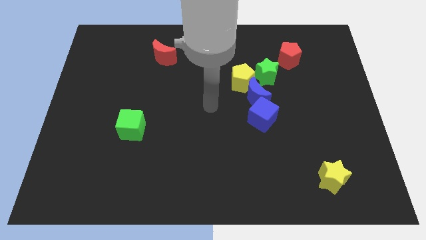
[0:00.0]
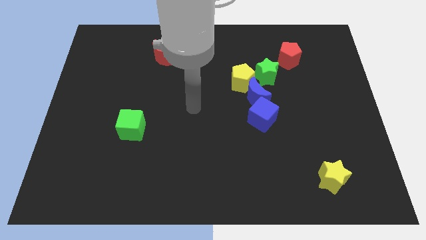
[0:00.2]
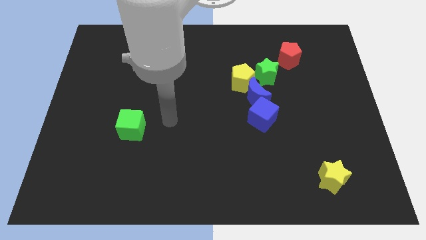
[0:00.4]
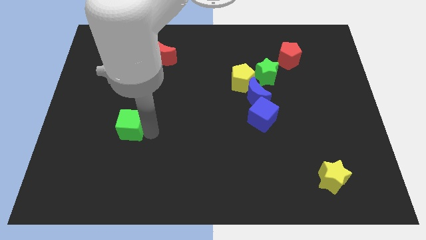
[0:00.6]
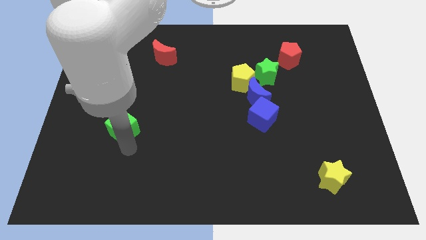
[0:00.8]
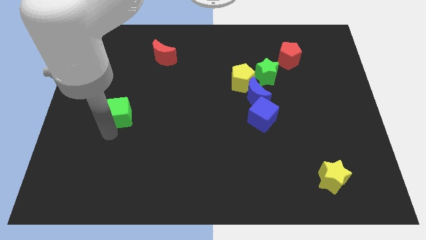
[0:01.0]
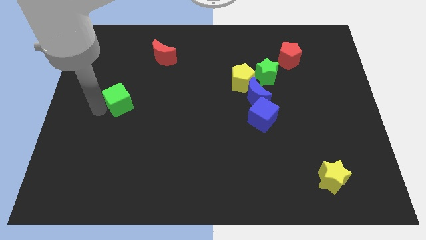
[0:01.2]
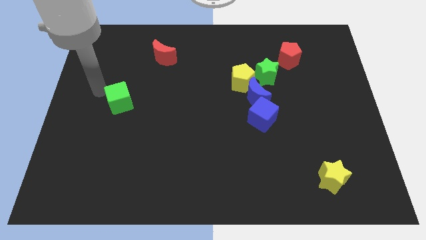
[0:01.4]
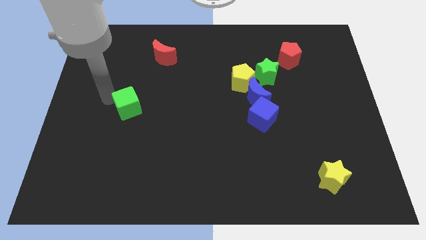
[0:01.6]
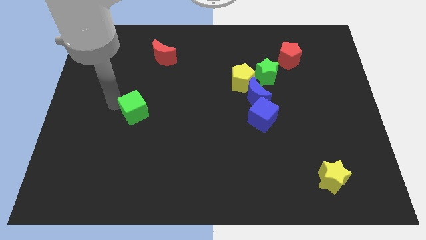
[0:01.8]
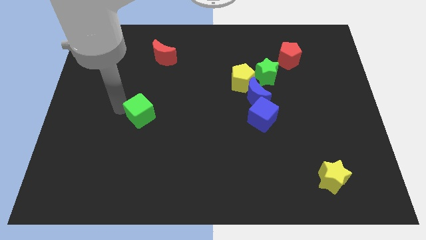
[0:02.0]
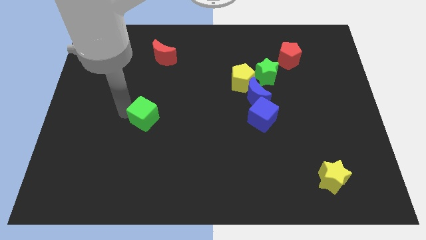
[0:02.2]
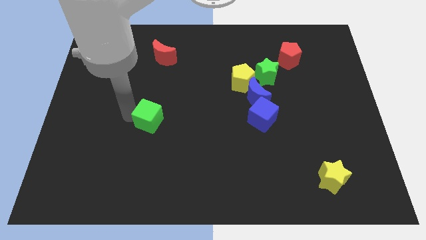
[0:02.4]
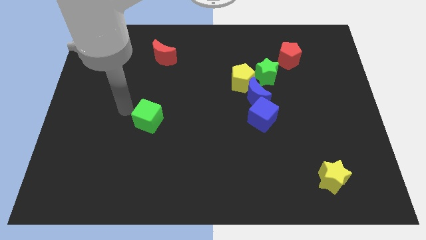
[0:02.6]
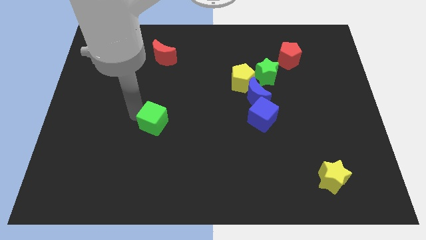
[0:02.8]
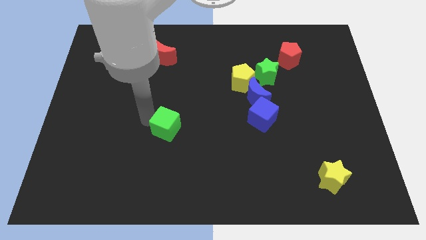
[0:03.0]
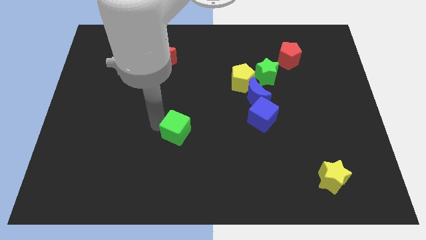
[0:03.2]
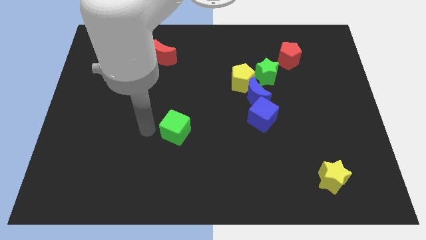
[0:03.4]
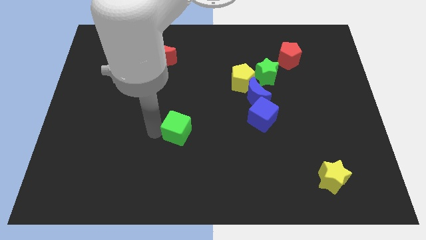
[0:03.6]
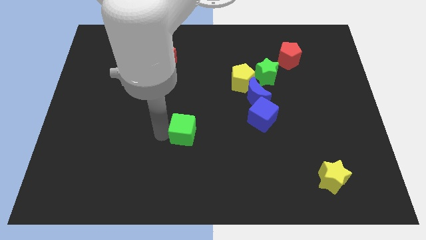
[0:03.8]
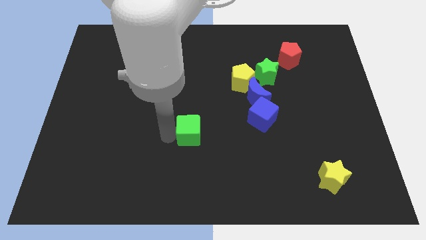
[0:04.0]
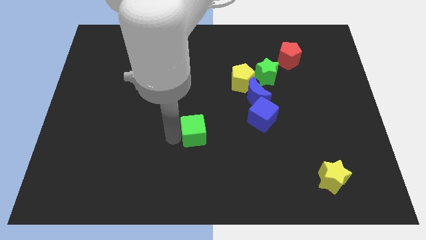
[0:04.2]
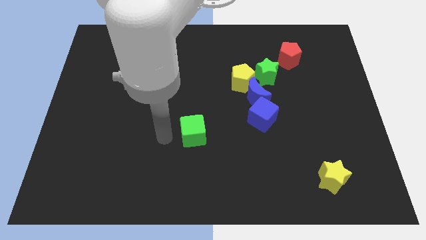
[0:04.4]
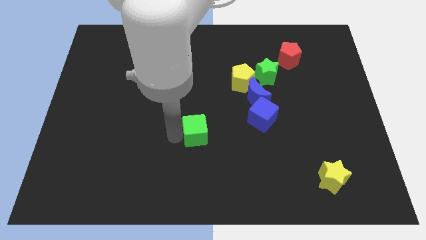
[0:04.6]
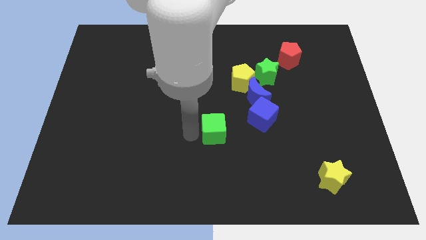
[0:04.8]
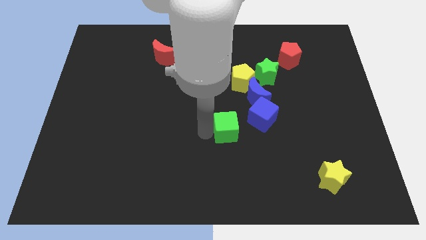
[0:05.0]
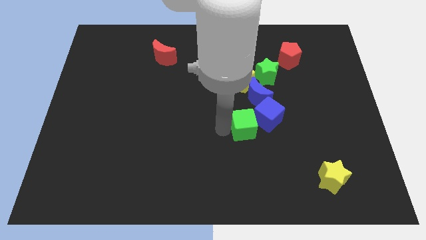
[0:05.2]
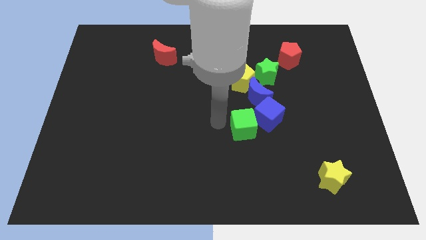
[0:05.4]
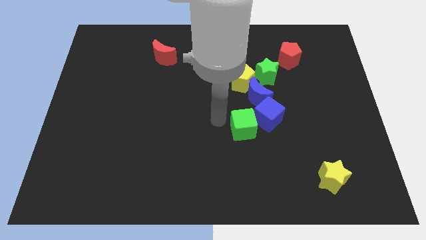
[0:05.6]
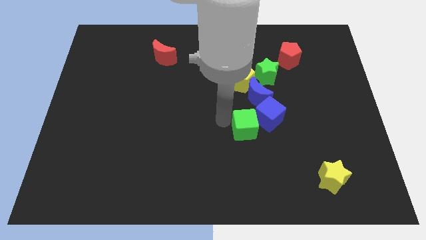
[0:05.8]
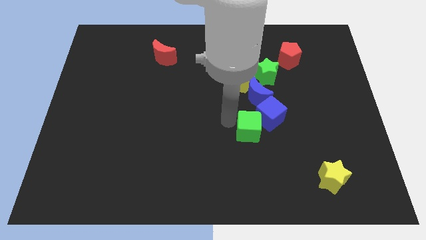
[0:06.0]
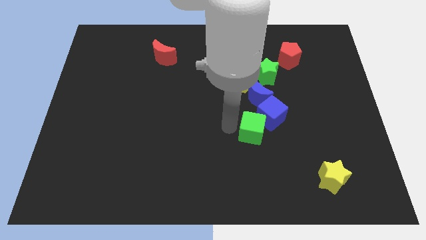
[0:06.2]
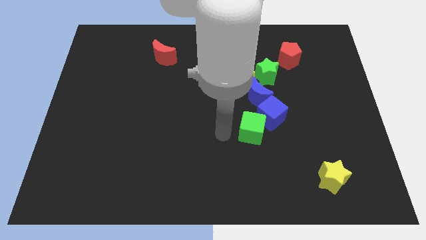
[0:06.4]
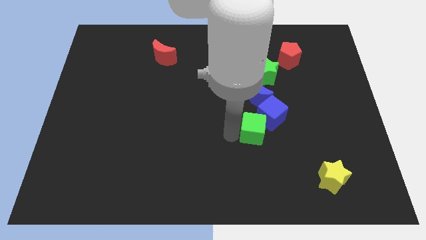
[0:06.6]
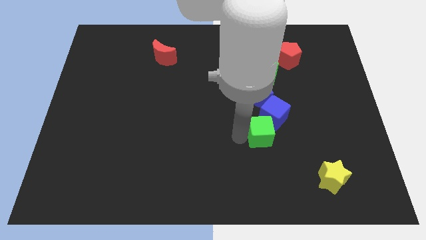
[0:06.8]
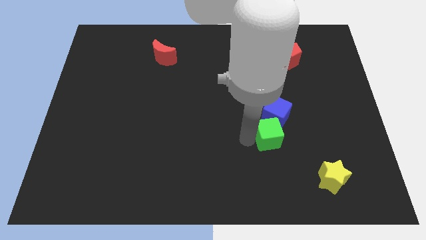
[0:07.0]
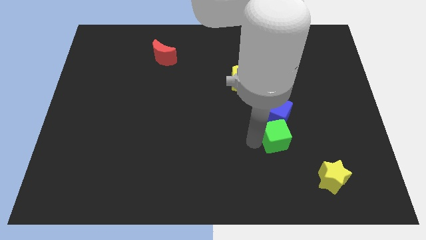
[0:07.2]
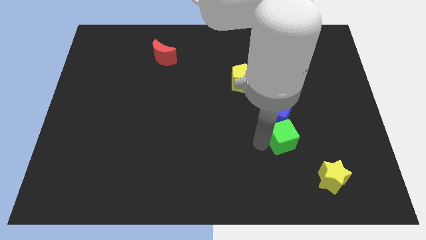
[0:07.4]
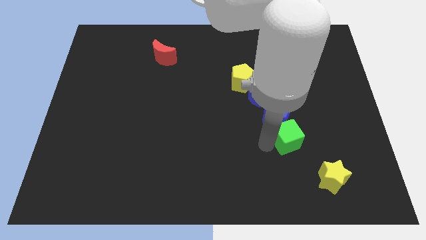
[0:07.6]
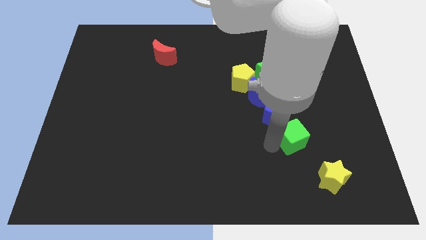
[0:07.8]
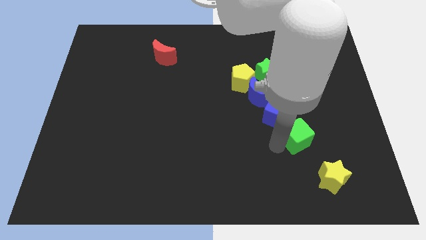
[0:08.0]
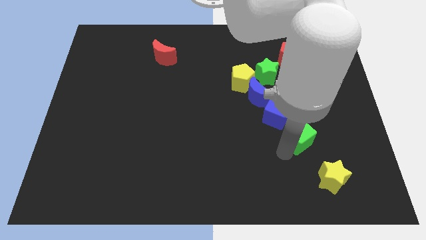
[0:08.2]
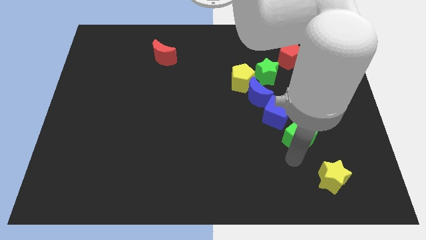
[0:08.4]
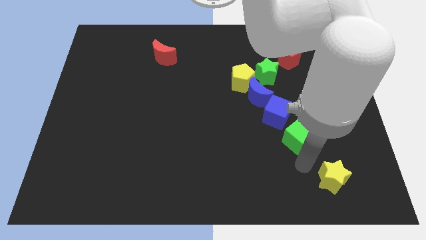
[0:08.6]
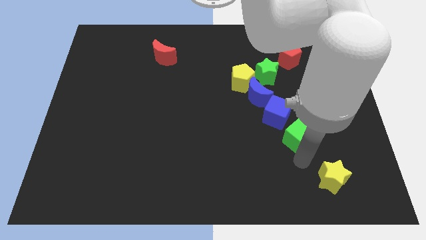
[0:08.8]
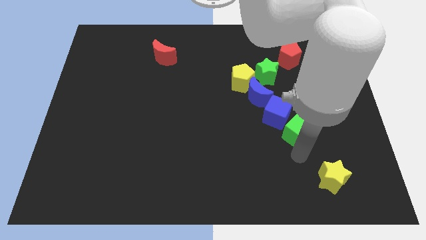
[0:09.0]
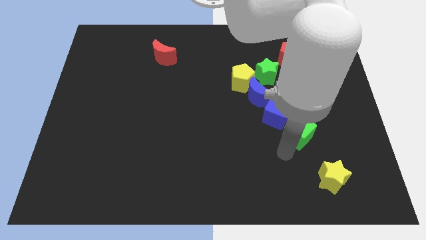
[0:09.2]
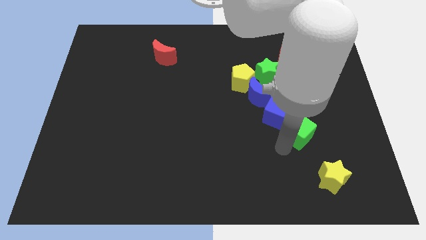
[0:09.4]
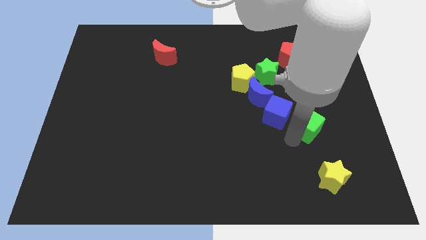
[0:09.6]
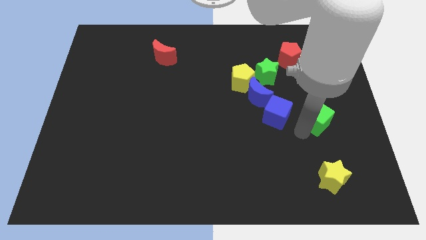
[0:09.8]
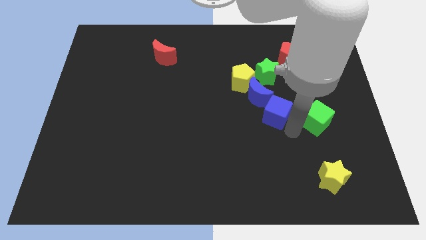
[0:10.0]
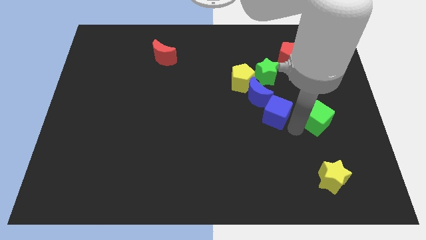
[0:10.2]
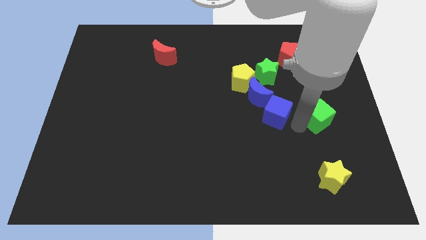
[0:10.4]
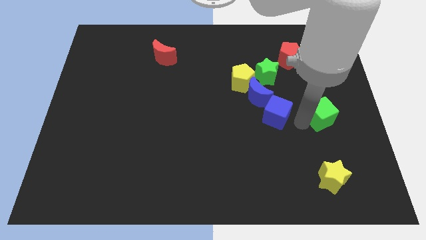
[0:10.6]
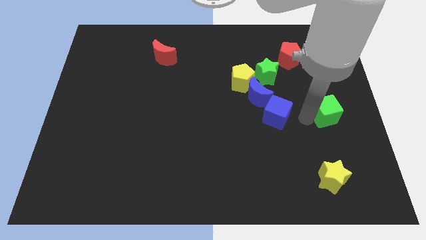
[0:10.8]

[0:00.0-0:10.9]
push the green cube to the right side of the board

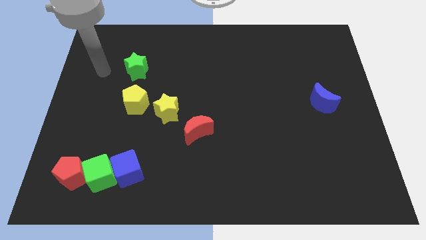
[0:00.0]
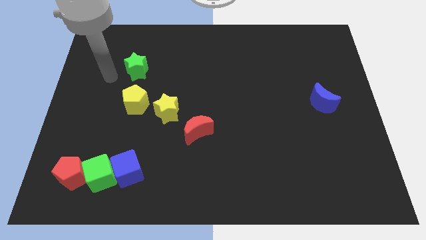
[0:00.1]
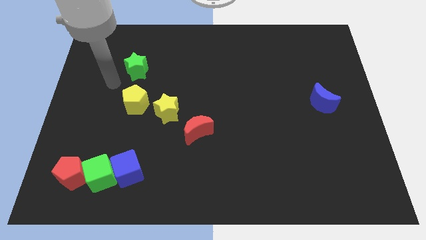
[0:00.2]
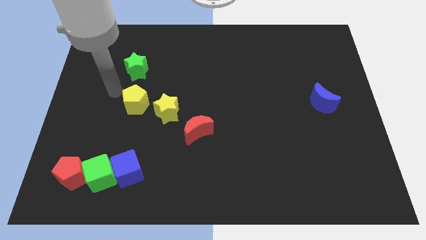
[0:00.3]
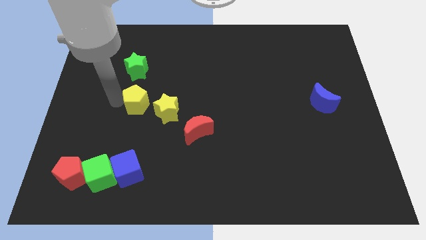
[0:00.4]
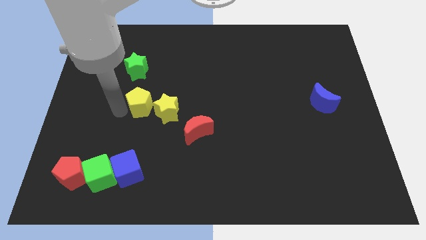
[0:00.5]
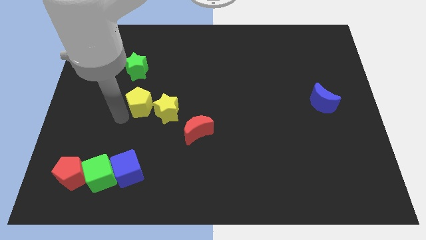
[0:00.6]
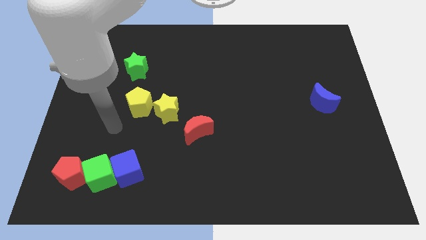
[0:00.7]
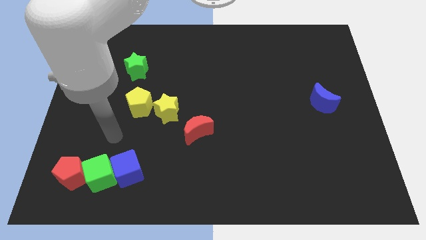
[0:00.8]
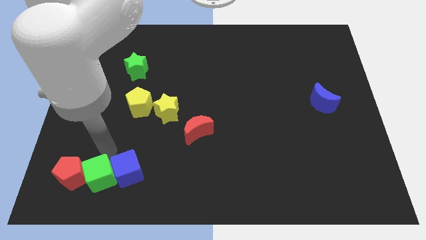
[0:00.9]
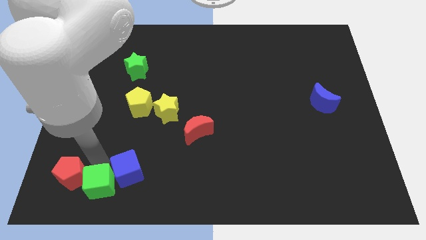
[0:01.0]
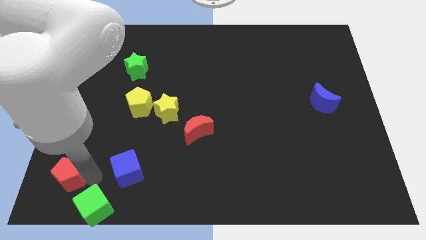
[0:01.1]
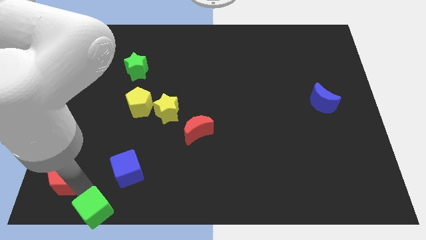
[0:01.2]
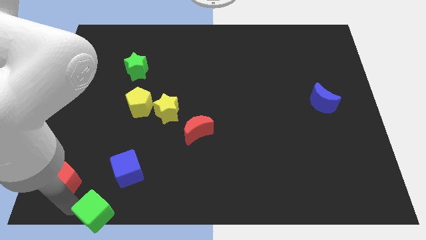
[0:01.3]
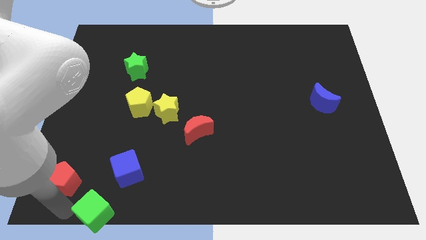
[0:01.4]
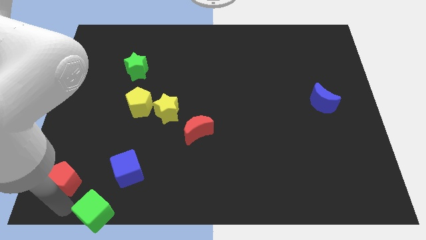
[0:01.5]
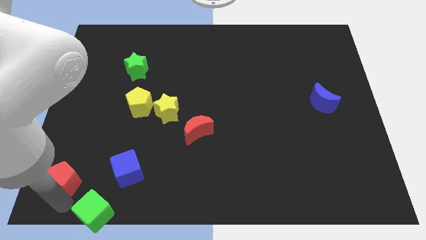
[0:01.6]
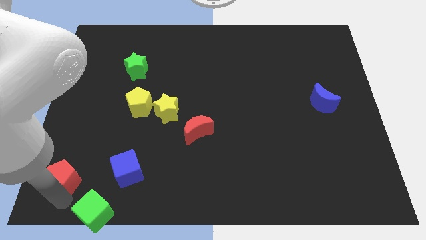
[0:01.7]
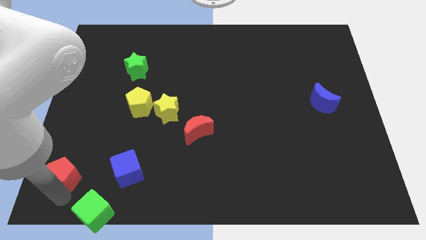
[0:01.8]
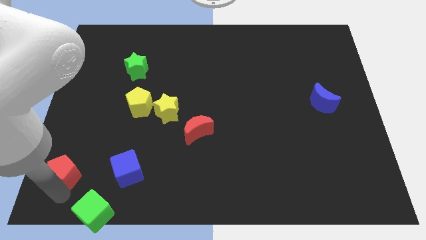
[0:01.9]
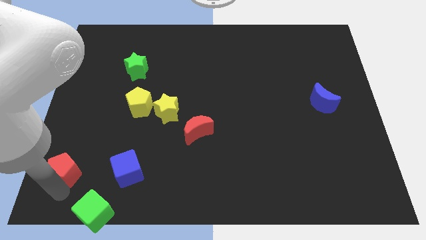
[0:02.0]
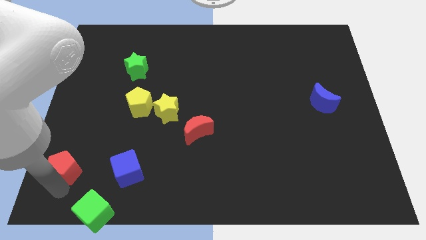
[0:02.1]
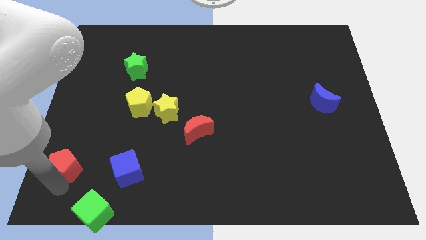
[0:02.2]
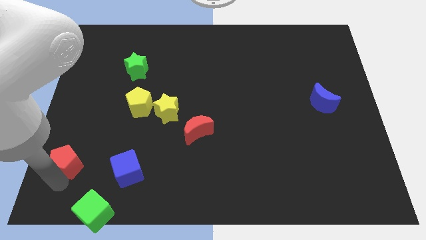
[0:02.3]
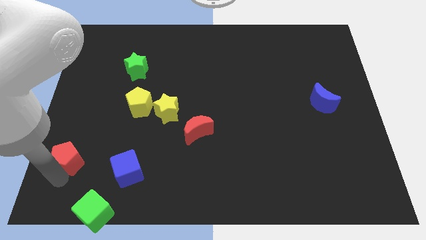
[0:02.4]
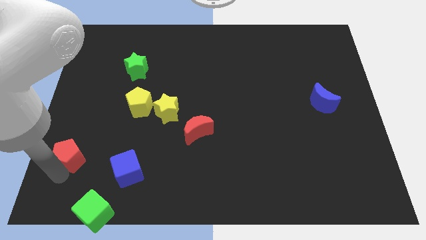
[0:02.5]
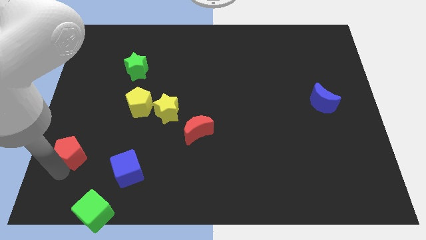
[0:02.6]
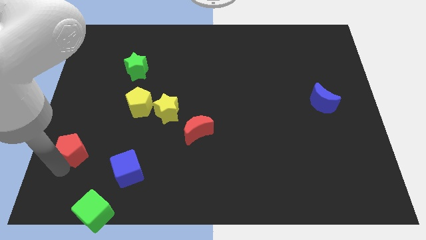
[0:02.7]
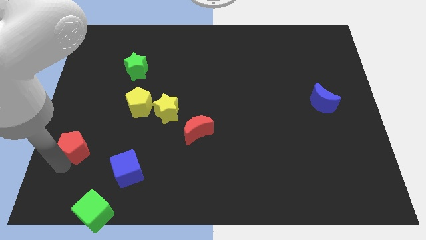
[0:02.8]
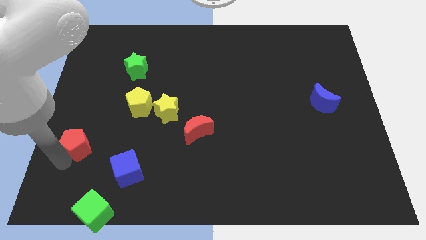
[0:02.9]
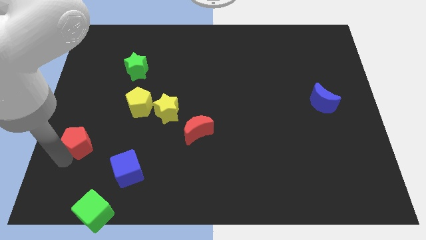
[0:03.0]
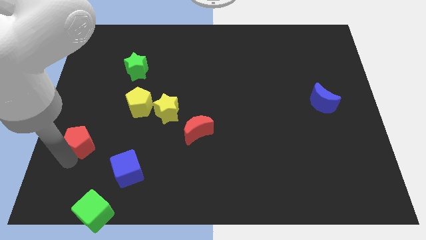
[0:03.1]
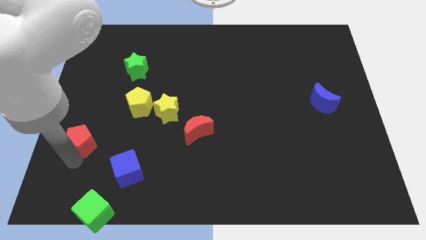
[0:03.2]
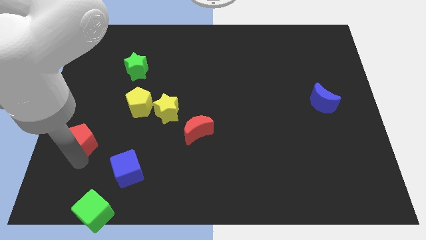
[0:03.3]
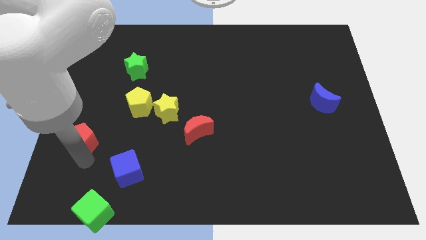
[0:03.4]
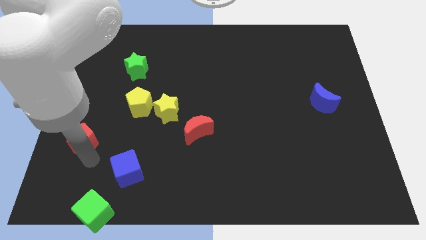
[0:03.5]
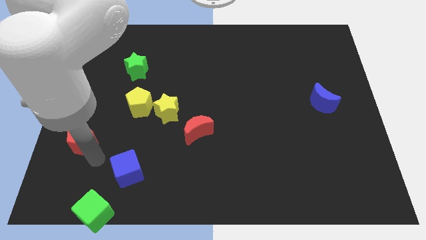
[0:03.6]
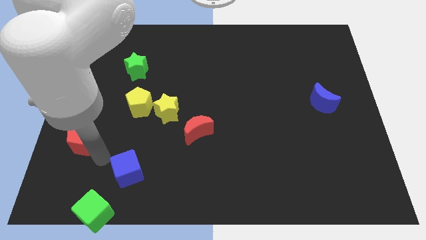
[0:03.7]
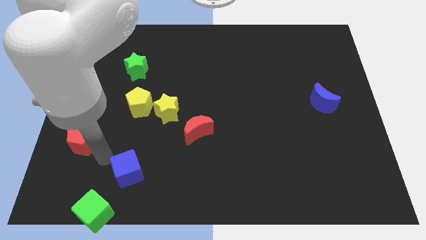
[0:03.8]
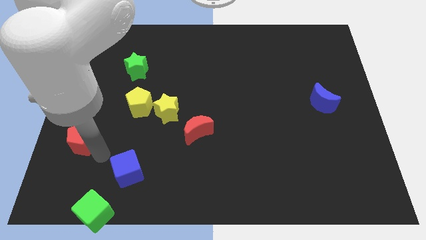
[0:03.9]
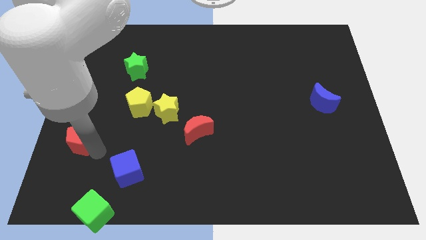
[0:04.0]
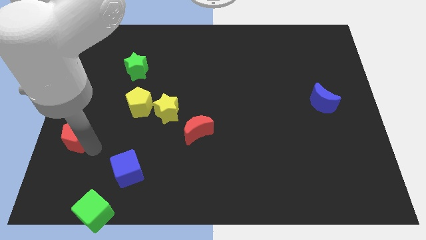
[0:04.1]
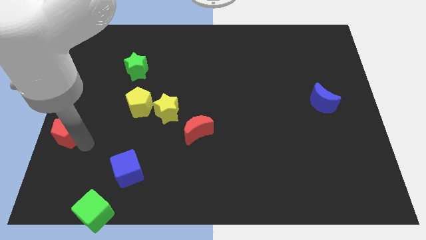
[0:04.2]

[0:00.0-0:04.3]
slide the red pentagon to the left side of the board
